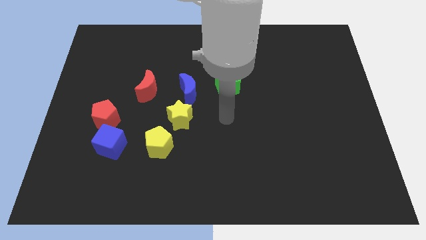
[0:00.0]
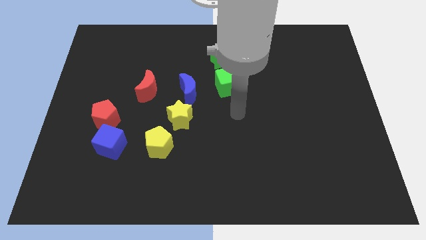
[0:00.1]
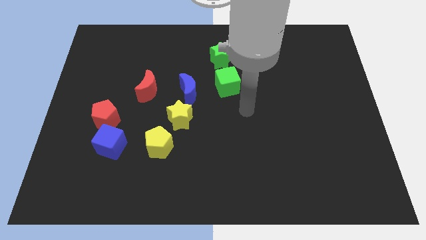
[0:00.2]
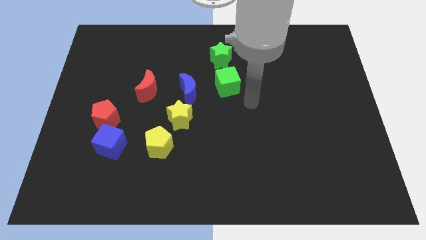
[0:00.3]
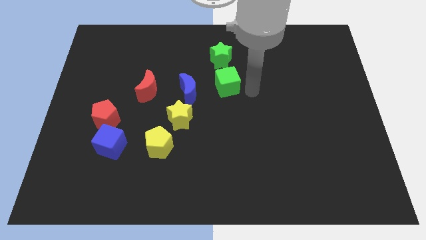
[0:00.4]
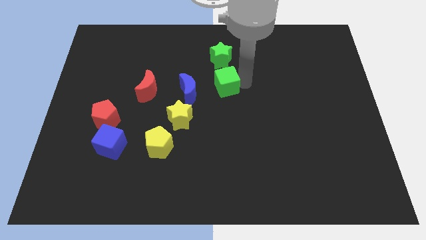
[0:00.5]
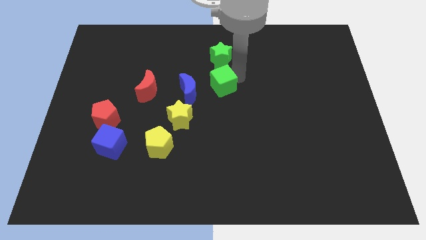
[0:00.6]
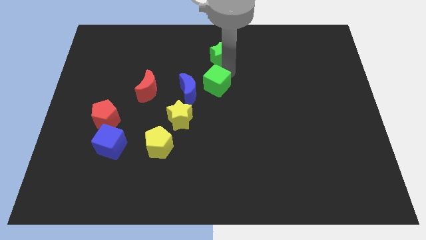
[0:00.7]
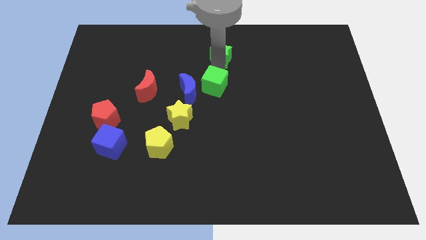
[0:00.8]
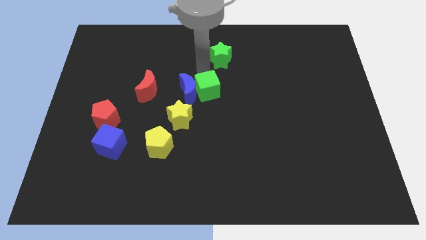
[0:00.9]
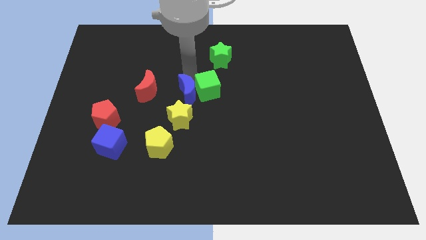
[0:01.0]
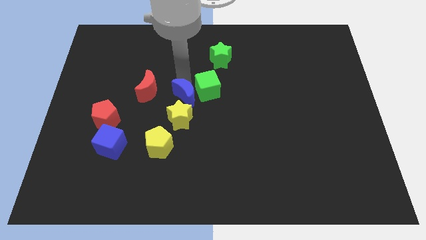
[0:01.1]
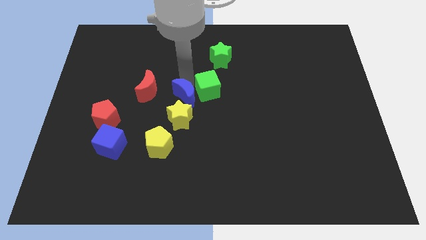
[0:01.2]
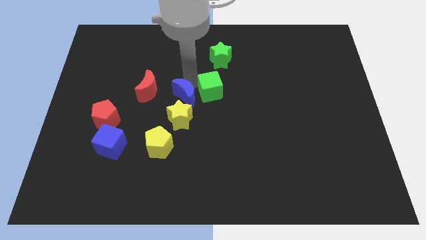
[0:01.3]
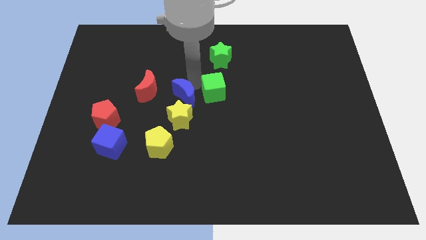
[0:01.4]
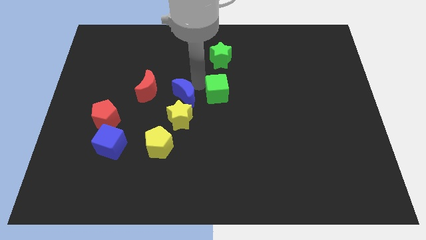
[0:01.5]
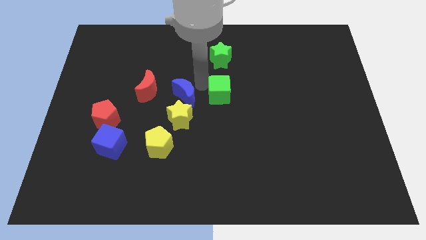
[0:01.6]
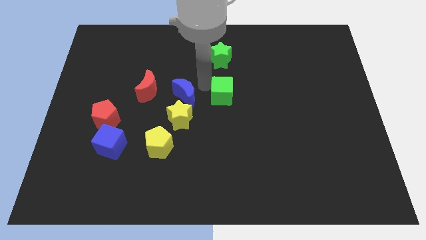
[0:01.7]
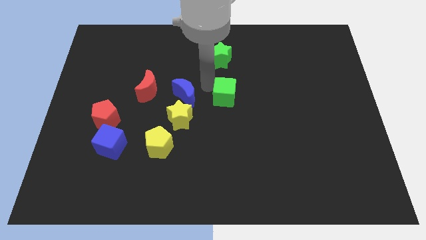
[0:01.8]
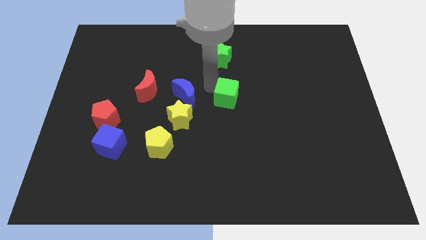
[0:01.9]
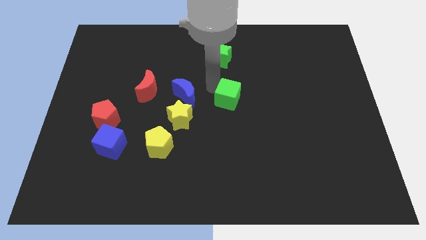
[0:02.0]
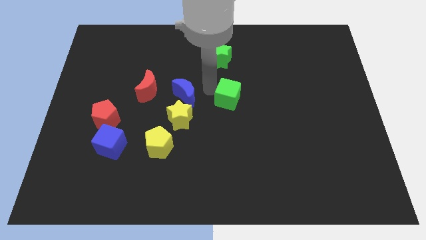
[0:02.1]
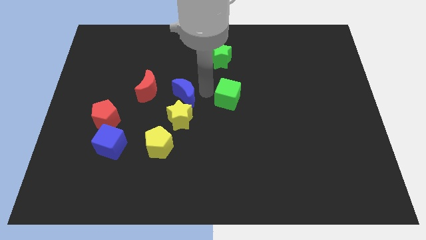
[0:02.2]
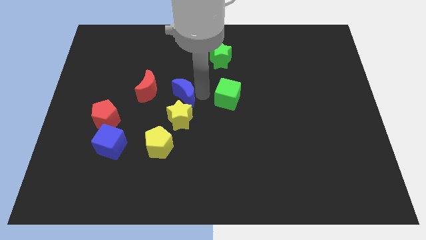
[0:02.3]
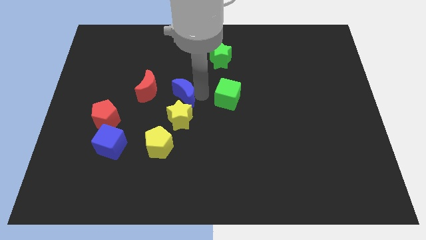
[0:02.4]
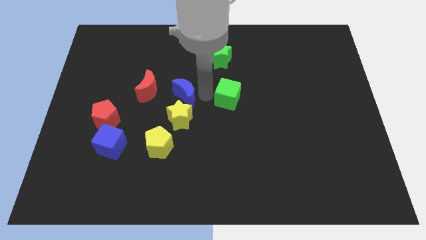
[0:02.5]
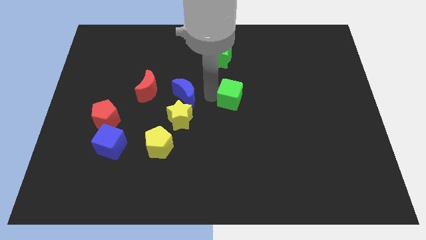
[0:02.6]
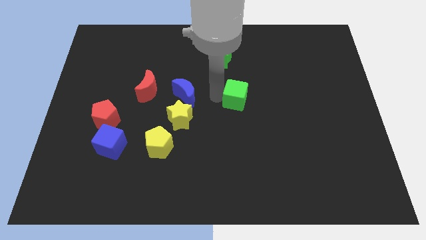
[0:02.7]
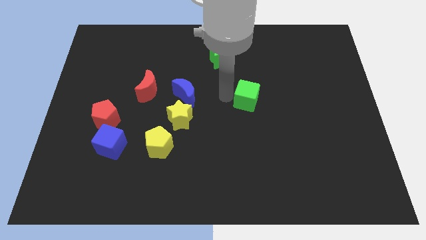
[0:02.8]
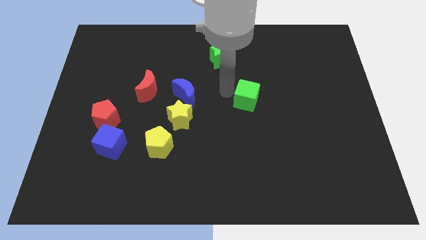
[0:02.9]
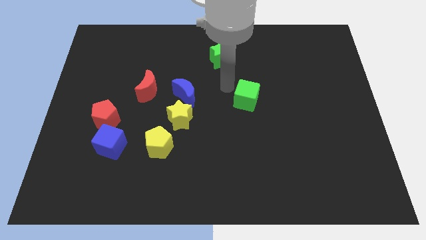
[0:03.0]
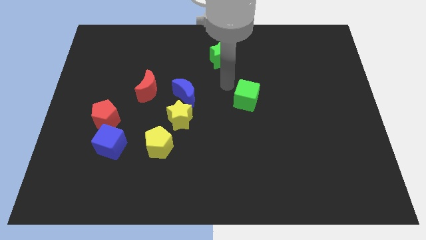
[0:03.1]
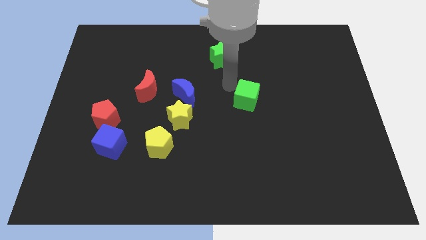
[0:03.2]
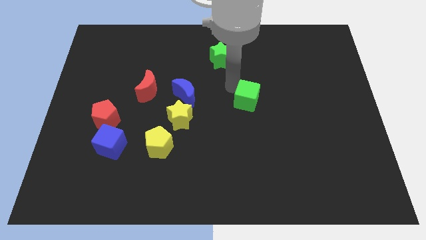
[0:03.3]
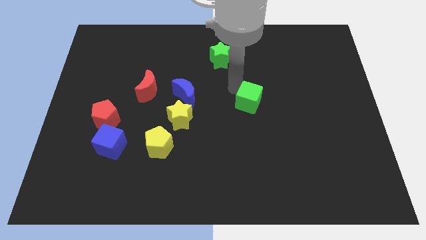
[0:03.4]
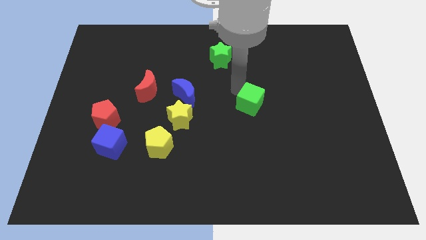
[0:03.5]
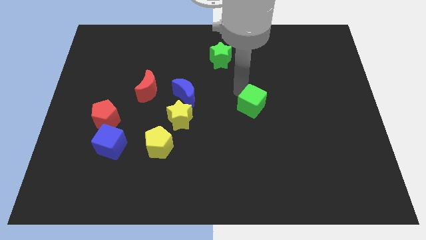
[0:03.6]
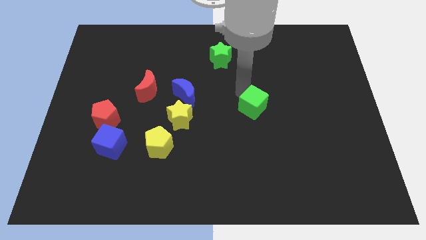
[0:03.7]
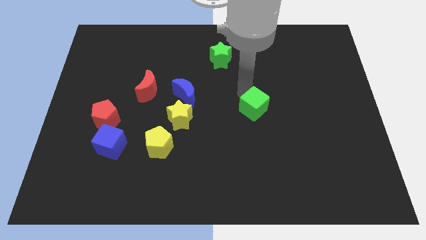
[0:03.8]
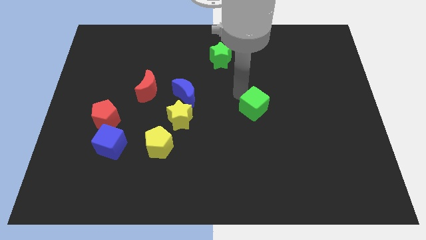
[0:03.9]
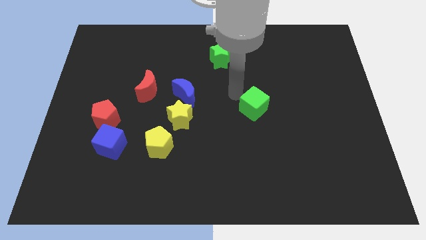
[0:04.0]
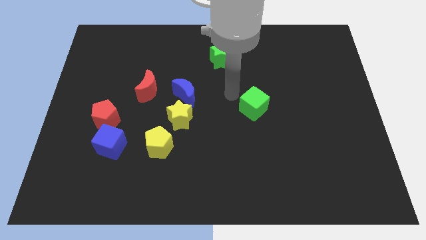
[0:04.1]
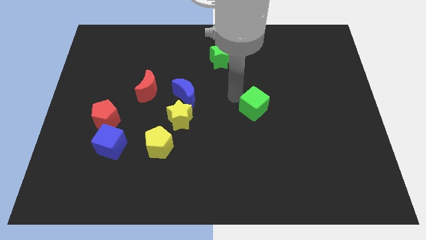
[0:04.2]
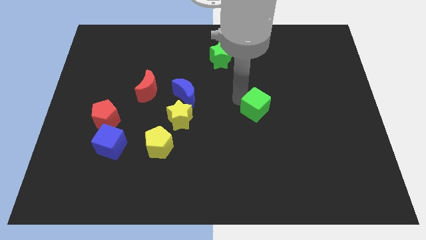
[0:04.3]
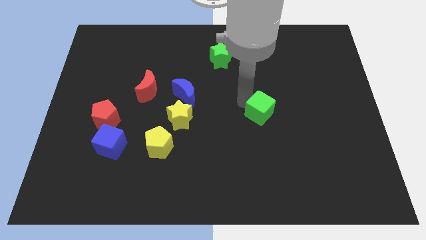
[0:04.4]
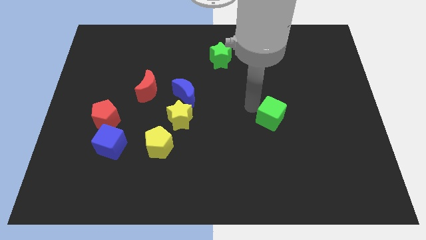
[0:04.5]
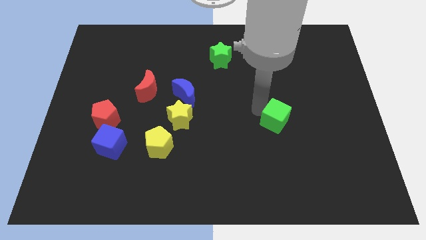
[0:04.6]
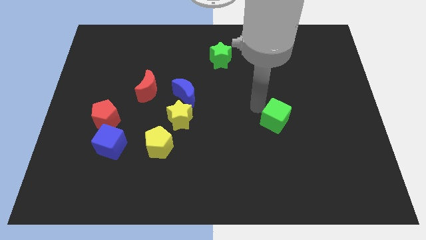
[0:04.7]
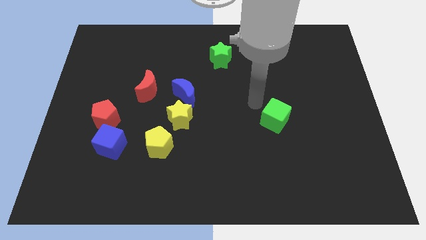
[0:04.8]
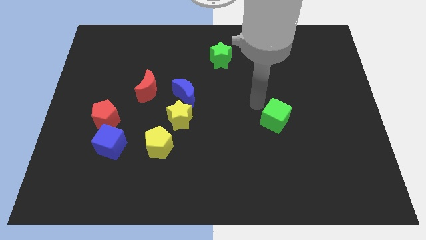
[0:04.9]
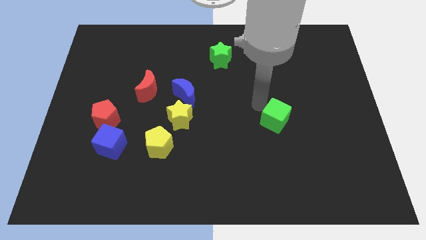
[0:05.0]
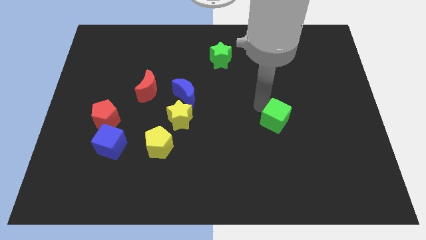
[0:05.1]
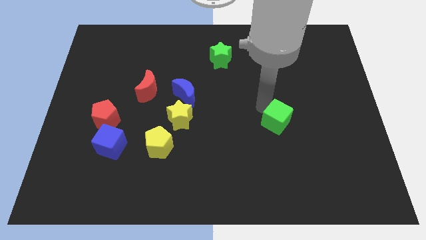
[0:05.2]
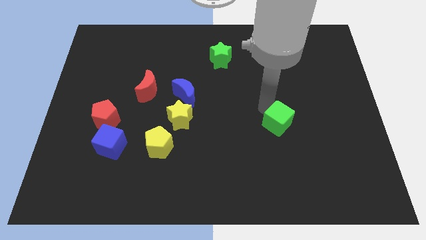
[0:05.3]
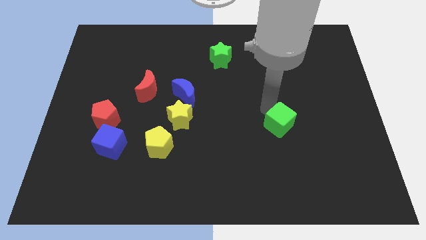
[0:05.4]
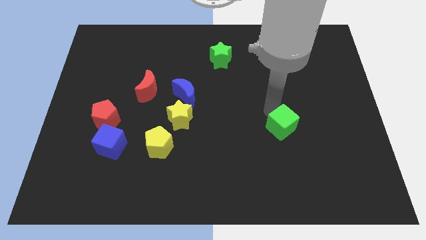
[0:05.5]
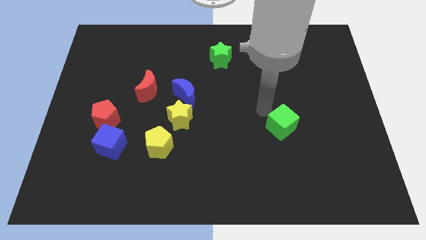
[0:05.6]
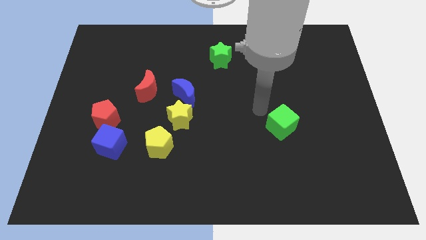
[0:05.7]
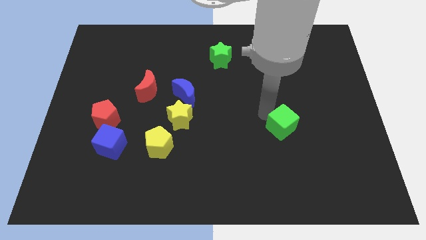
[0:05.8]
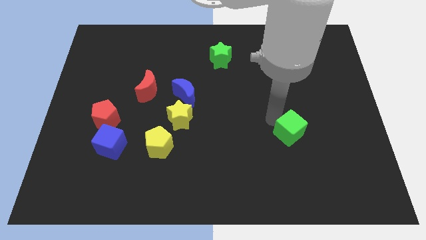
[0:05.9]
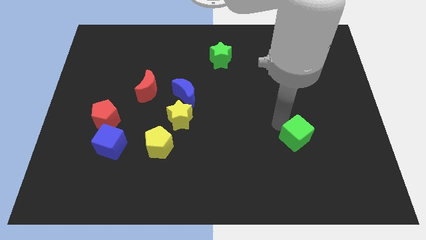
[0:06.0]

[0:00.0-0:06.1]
move the green cube down and right

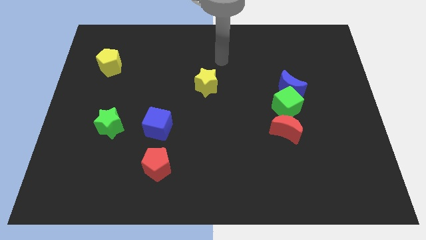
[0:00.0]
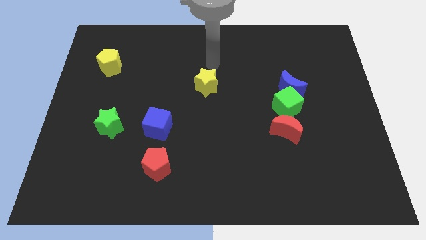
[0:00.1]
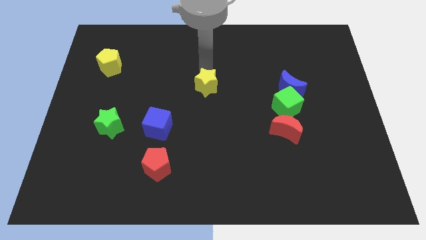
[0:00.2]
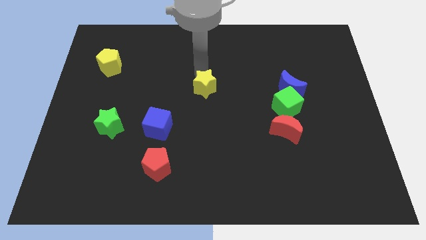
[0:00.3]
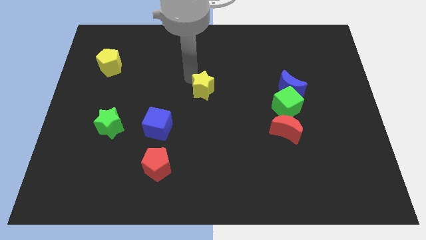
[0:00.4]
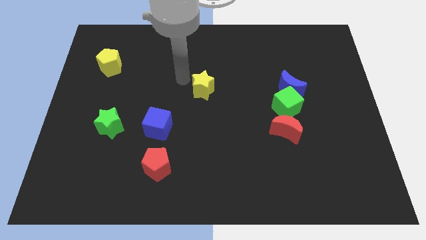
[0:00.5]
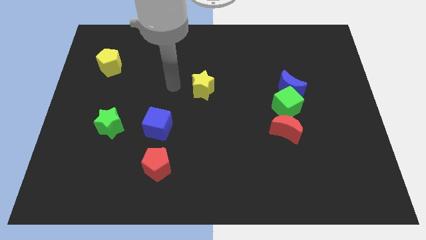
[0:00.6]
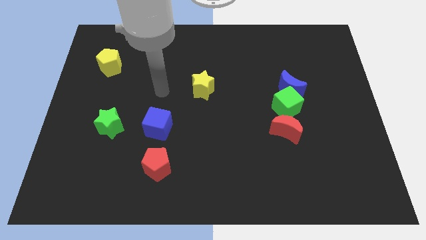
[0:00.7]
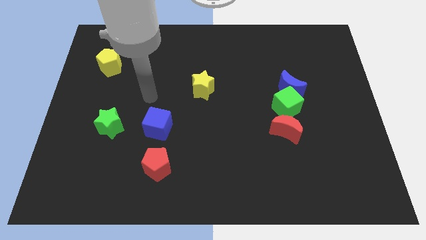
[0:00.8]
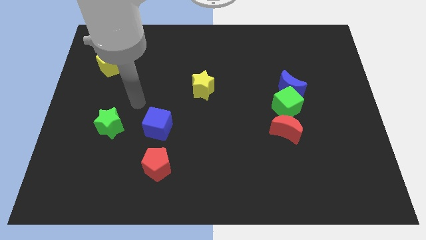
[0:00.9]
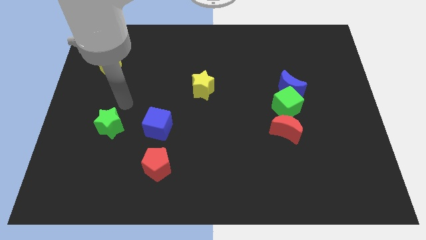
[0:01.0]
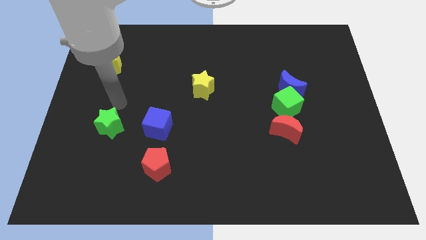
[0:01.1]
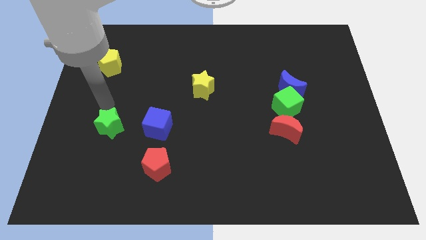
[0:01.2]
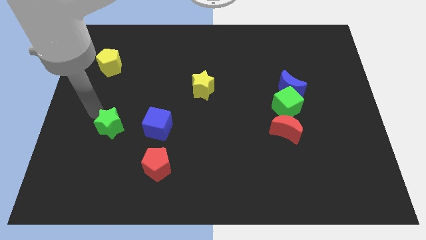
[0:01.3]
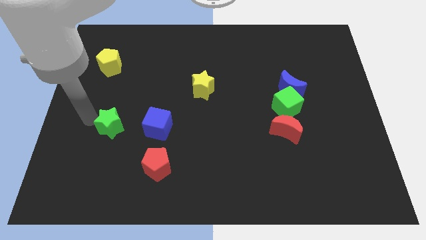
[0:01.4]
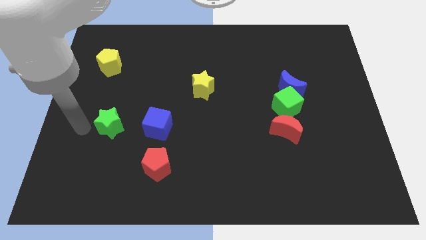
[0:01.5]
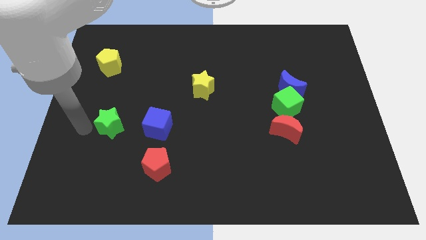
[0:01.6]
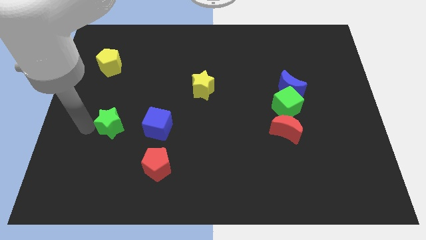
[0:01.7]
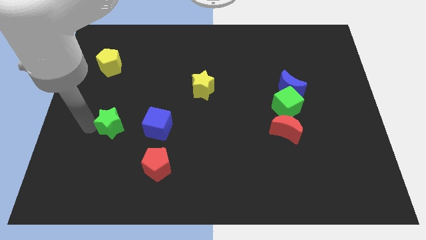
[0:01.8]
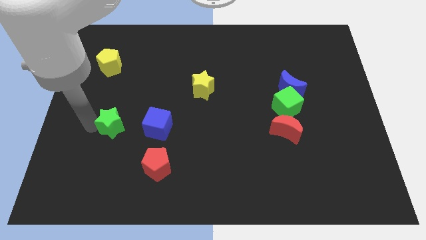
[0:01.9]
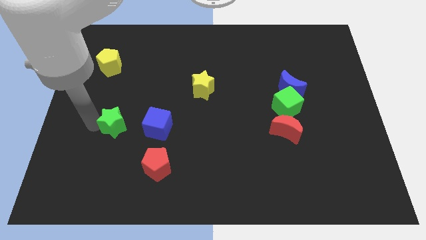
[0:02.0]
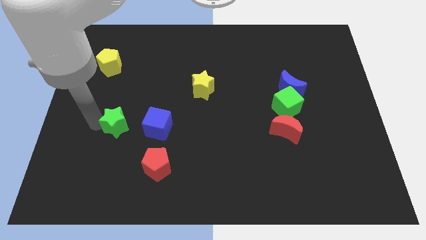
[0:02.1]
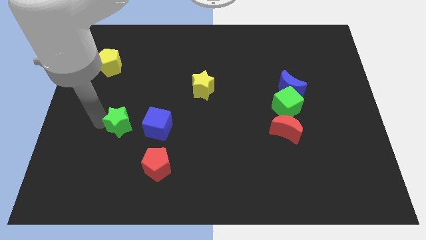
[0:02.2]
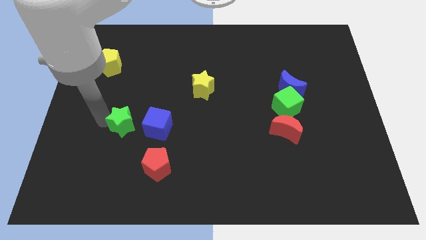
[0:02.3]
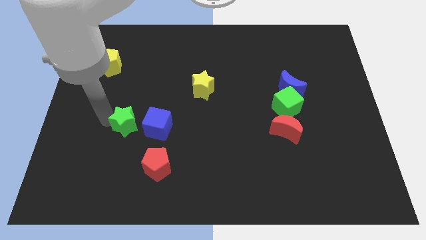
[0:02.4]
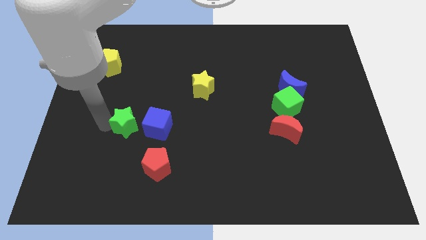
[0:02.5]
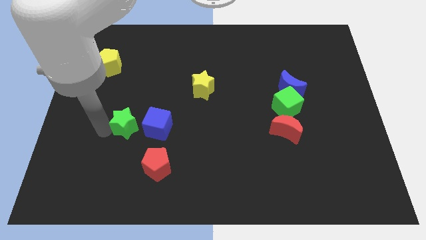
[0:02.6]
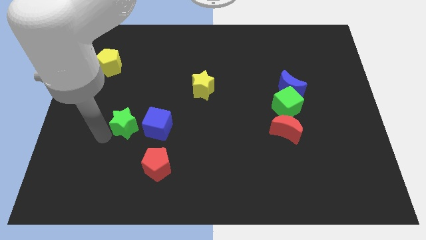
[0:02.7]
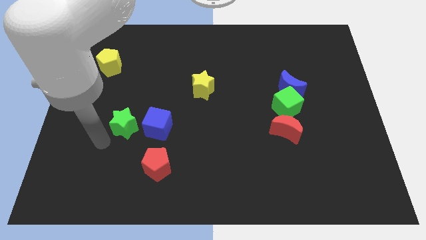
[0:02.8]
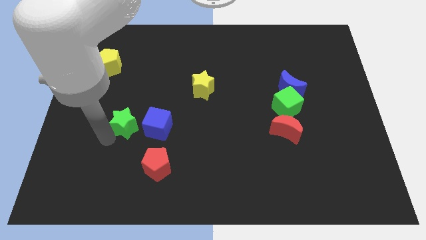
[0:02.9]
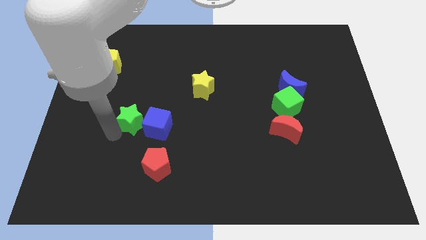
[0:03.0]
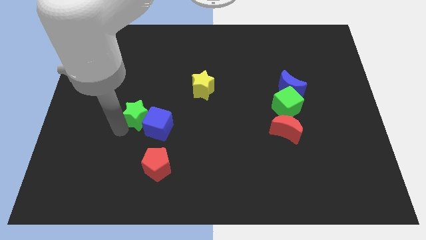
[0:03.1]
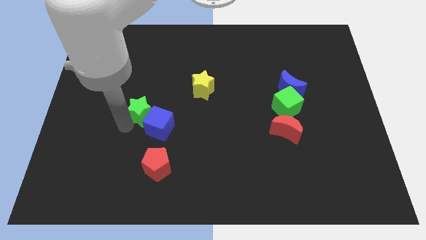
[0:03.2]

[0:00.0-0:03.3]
slide the green star up and right diagonally somewhat
